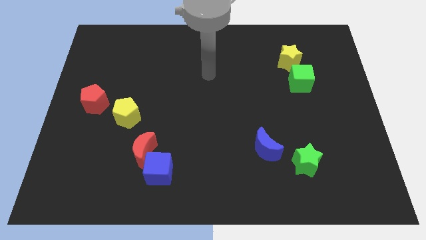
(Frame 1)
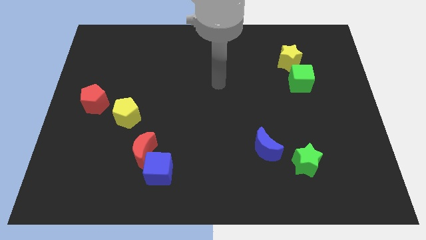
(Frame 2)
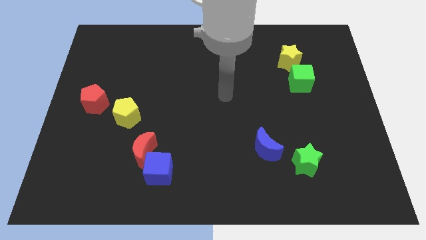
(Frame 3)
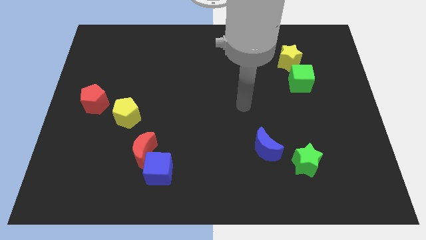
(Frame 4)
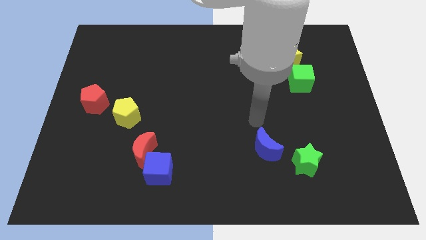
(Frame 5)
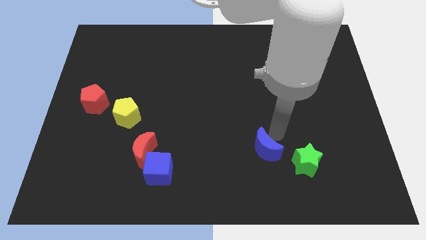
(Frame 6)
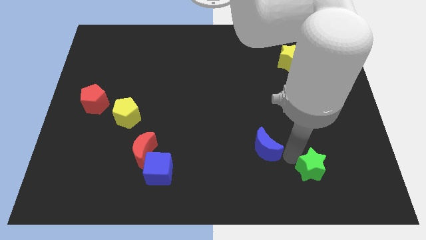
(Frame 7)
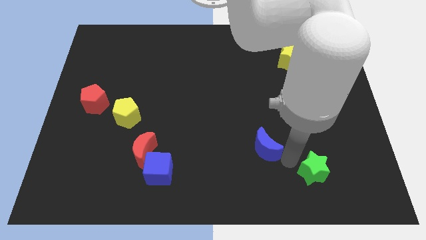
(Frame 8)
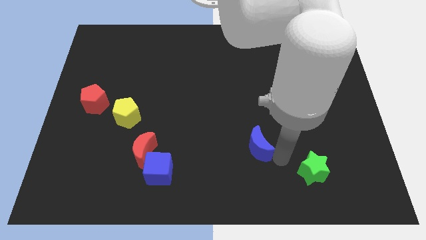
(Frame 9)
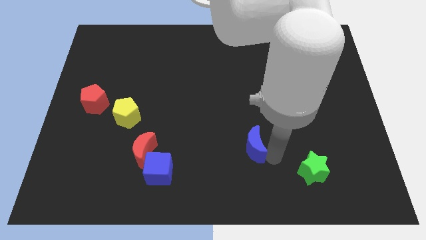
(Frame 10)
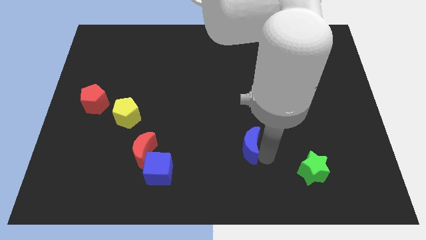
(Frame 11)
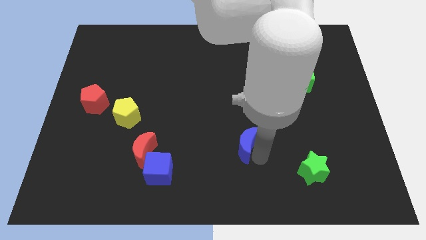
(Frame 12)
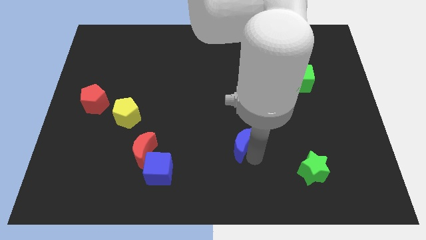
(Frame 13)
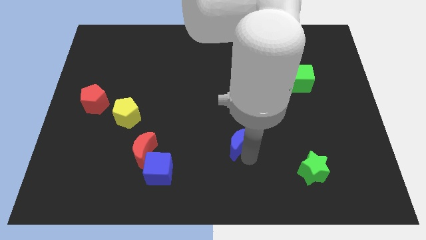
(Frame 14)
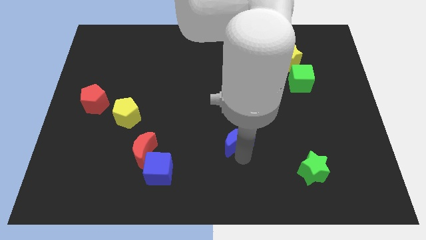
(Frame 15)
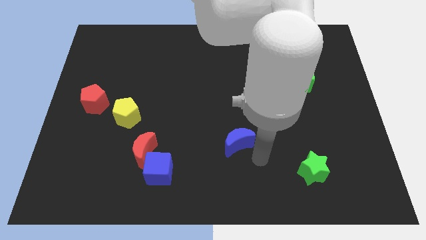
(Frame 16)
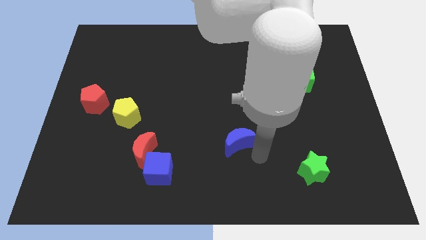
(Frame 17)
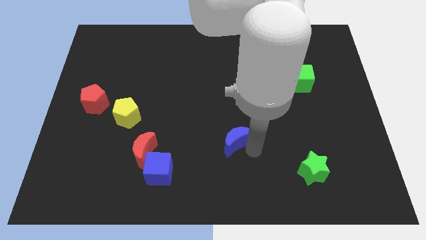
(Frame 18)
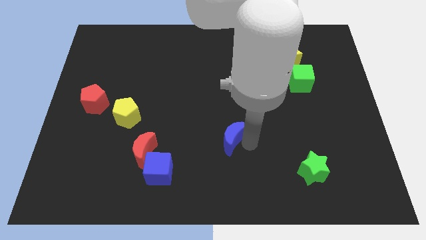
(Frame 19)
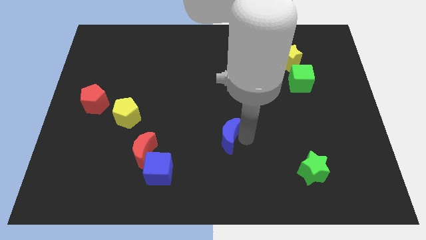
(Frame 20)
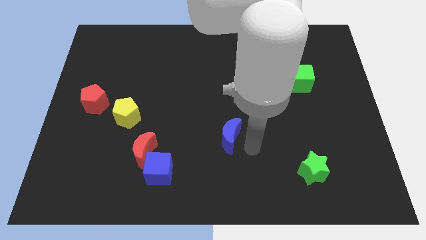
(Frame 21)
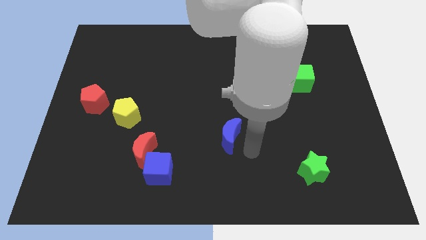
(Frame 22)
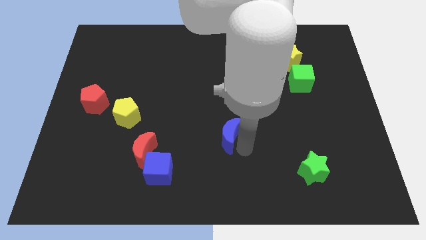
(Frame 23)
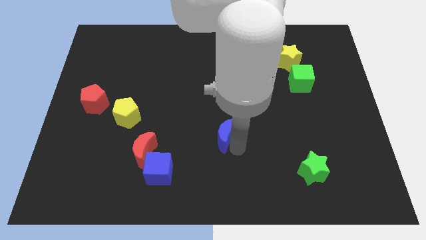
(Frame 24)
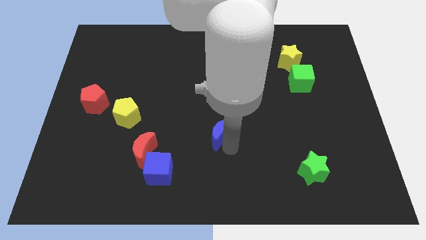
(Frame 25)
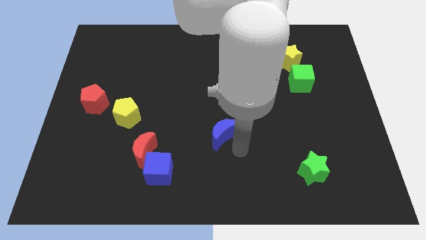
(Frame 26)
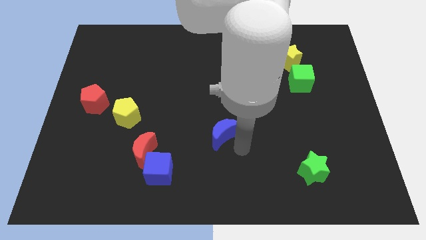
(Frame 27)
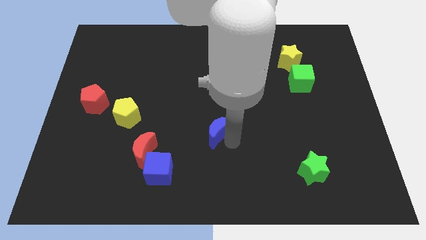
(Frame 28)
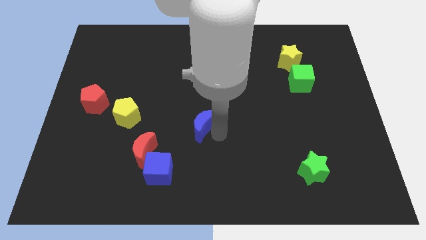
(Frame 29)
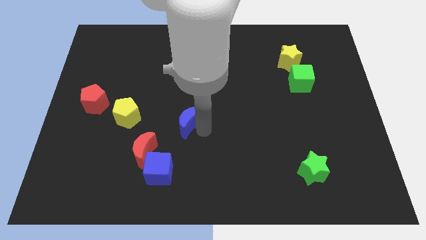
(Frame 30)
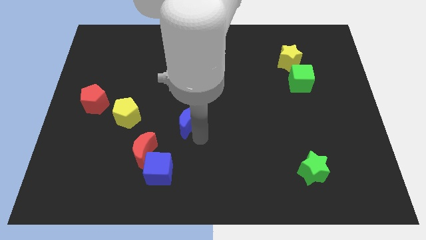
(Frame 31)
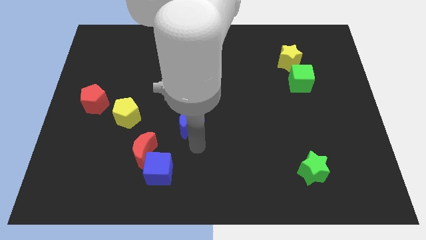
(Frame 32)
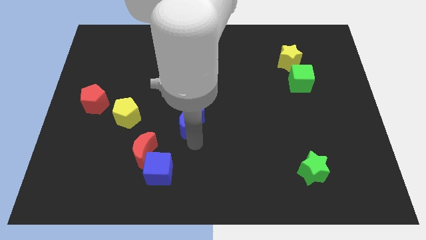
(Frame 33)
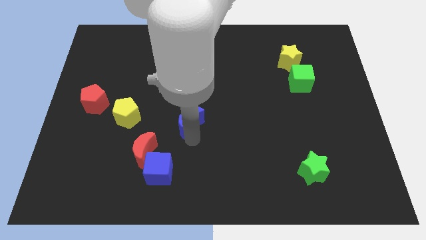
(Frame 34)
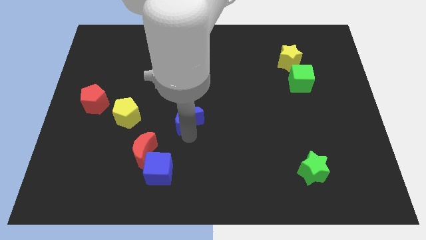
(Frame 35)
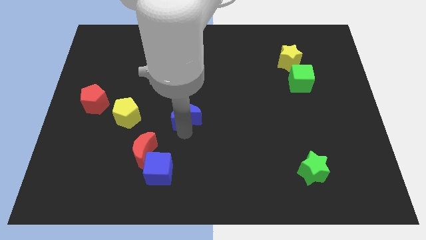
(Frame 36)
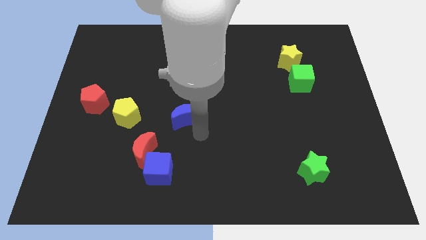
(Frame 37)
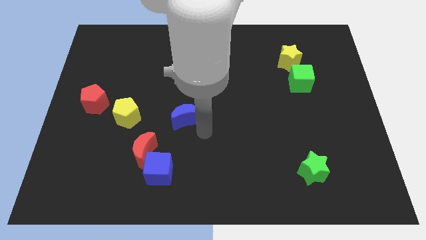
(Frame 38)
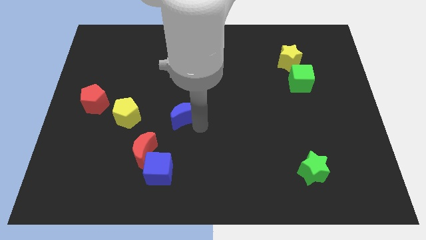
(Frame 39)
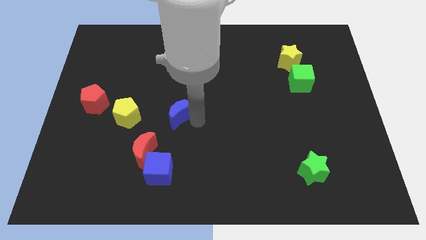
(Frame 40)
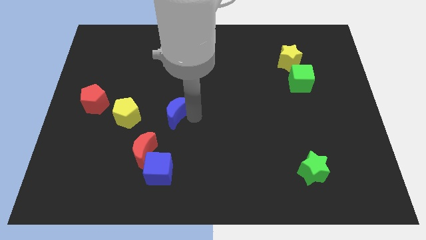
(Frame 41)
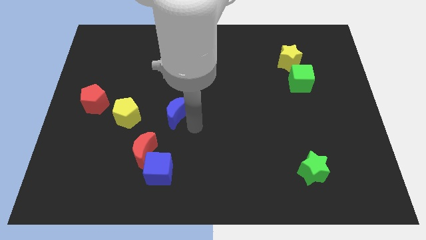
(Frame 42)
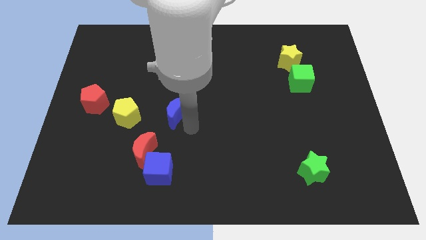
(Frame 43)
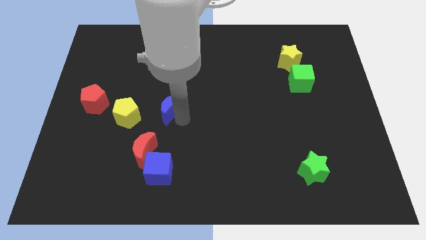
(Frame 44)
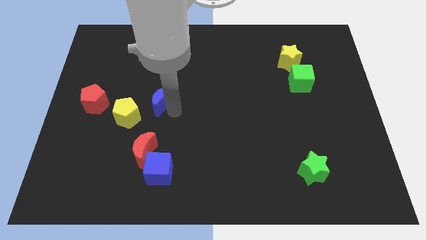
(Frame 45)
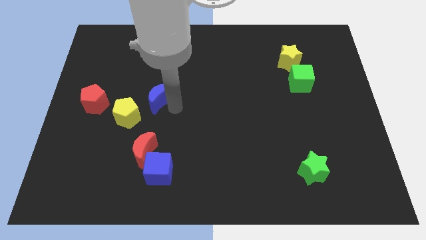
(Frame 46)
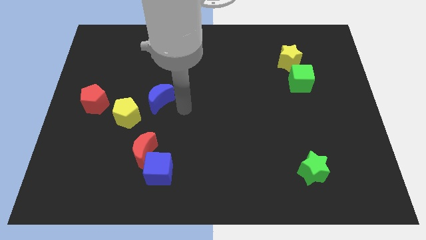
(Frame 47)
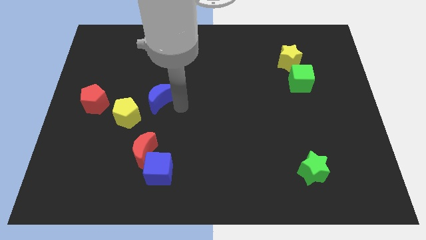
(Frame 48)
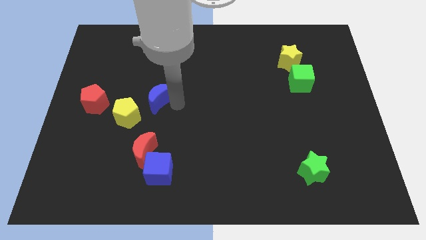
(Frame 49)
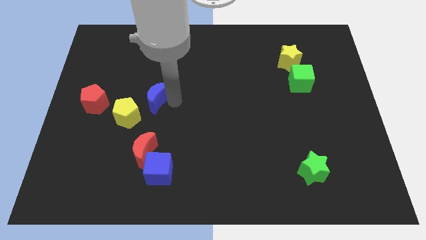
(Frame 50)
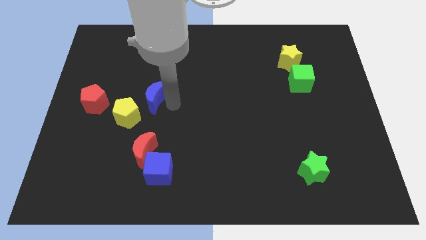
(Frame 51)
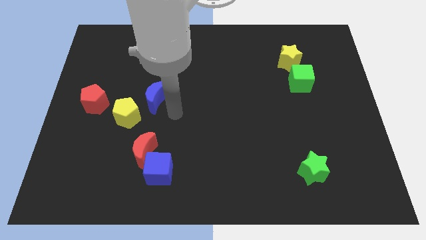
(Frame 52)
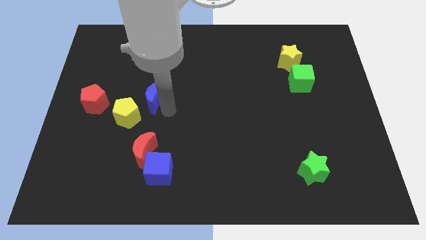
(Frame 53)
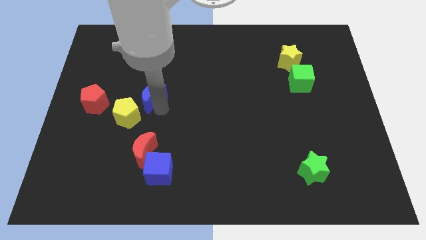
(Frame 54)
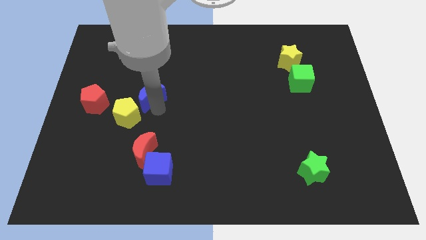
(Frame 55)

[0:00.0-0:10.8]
push the blue moon to the top of the yellow pentagon

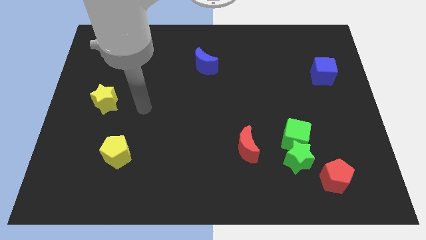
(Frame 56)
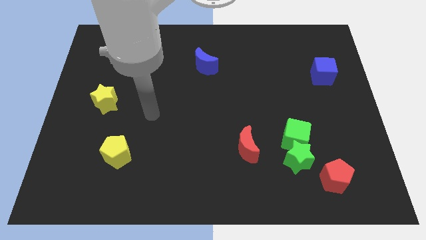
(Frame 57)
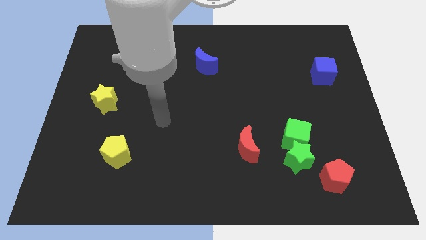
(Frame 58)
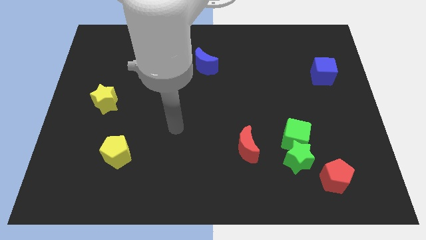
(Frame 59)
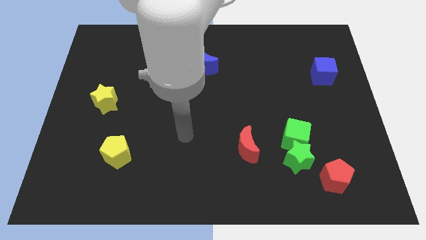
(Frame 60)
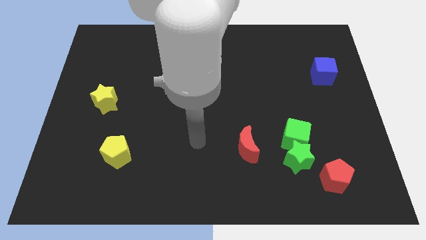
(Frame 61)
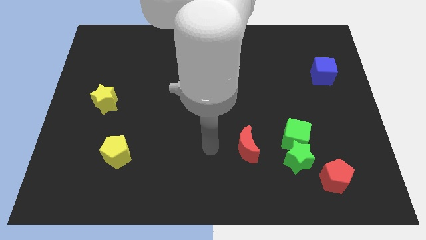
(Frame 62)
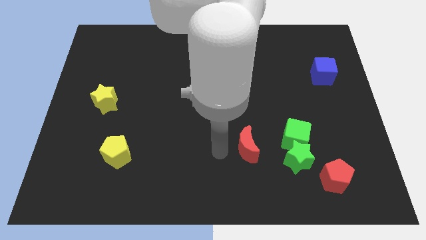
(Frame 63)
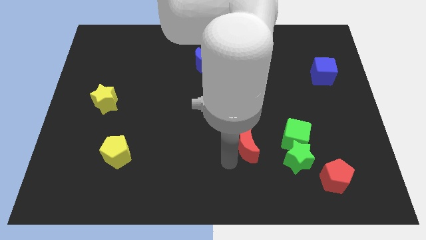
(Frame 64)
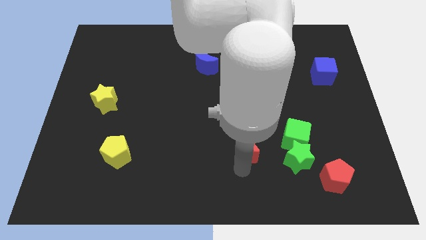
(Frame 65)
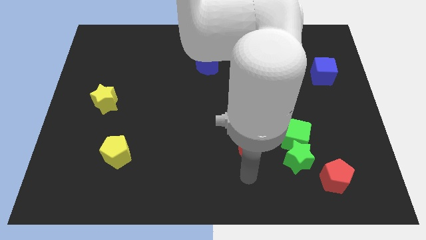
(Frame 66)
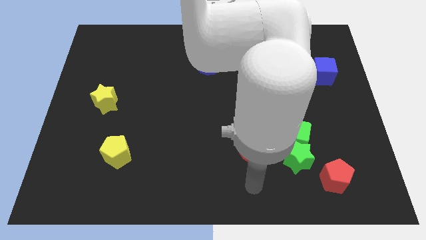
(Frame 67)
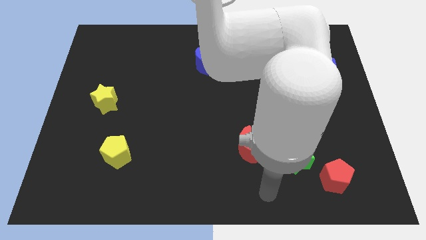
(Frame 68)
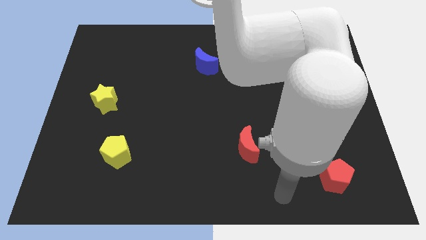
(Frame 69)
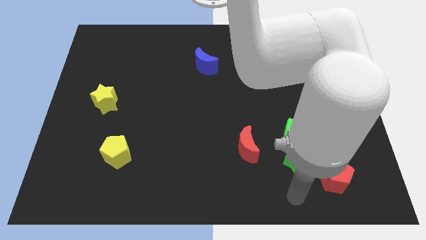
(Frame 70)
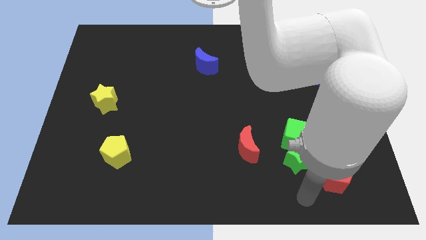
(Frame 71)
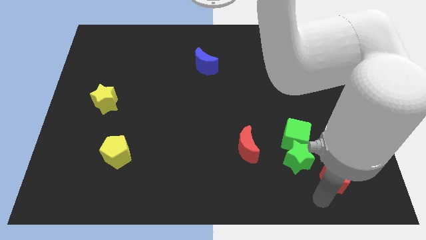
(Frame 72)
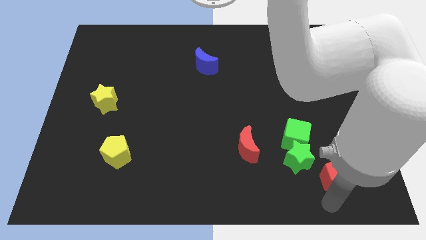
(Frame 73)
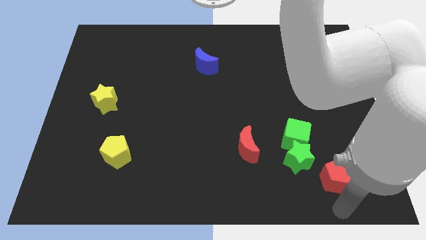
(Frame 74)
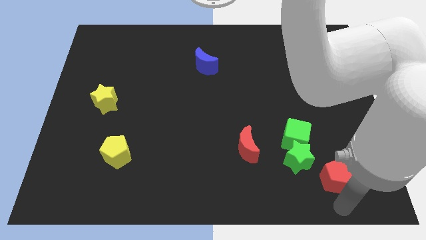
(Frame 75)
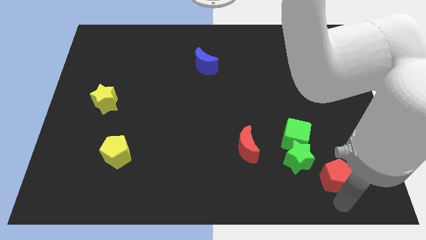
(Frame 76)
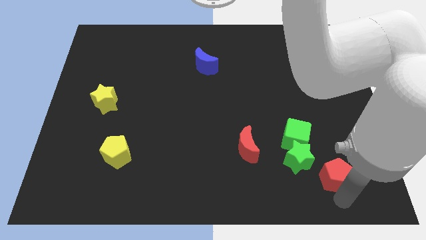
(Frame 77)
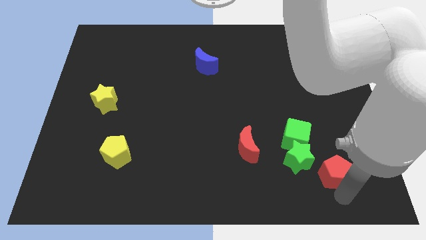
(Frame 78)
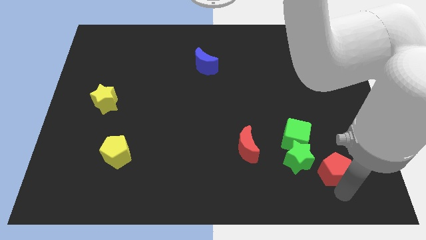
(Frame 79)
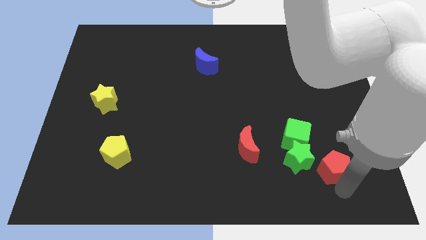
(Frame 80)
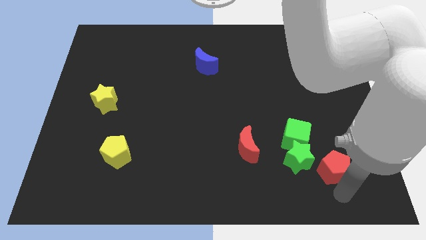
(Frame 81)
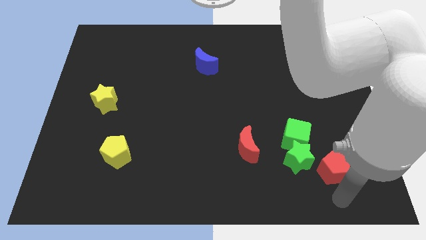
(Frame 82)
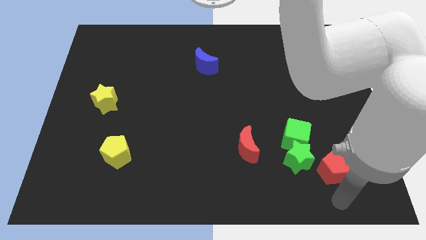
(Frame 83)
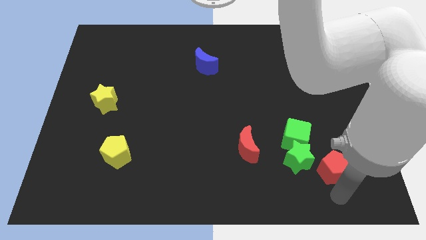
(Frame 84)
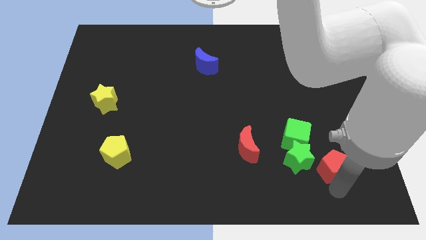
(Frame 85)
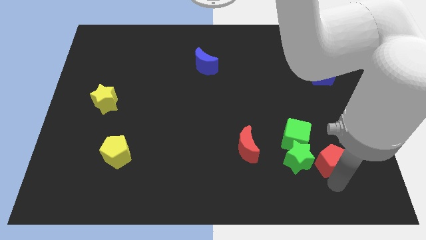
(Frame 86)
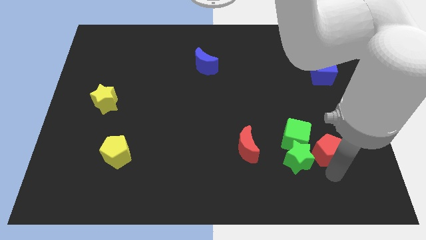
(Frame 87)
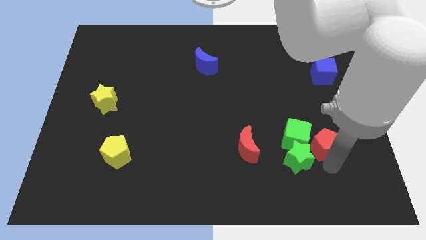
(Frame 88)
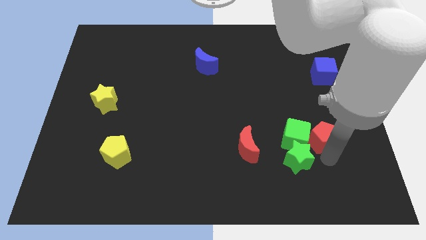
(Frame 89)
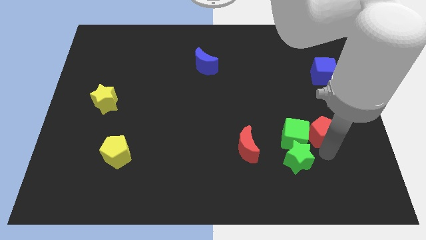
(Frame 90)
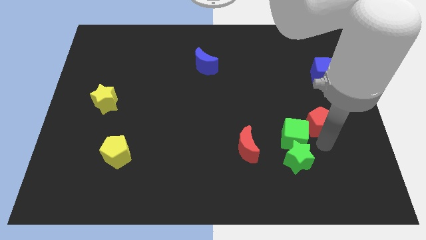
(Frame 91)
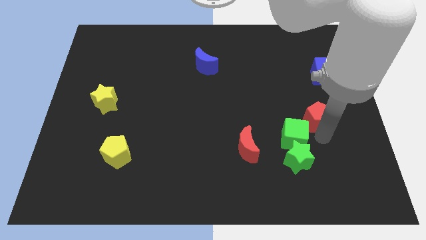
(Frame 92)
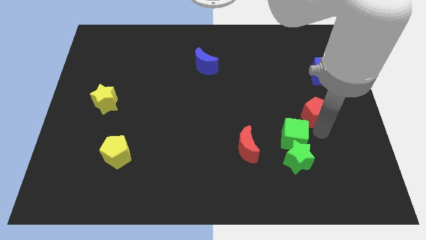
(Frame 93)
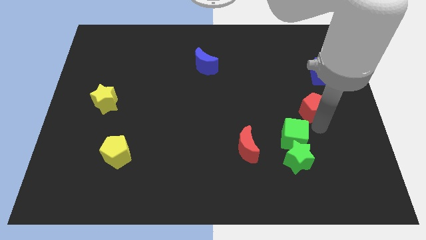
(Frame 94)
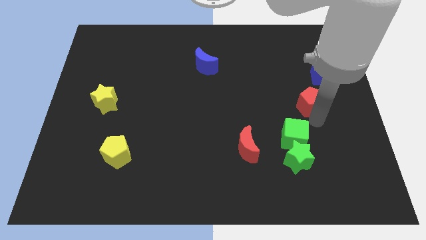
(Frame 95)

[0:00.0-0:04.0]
push the red pentagon to the bottom left side of the blue cube
